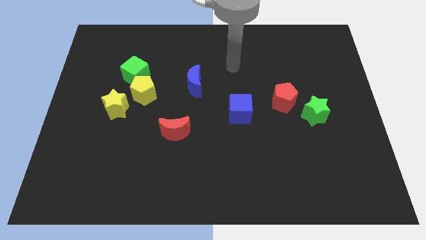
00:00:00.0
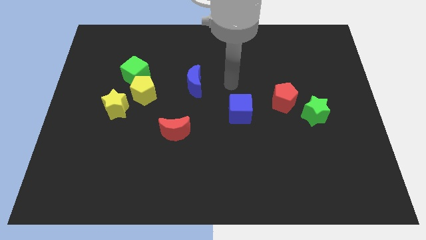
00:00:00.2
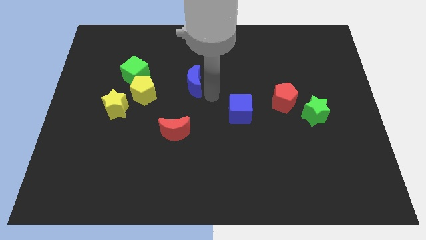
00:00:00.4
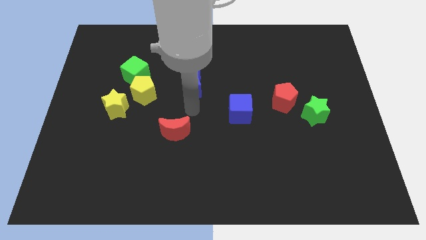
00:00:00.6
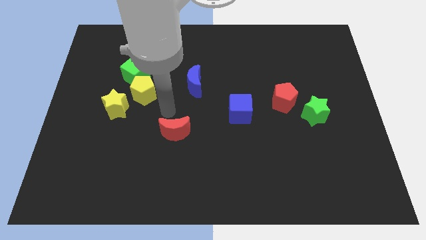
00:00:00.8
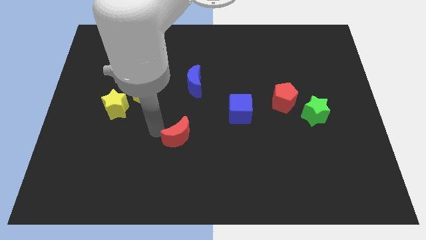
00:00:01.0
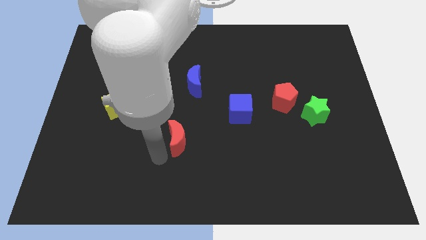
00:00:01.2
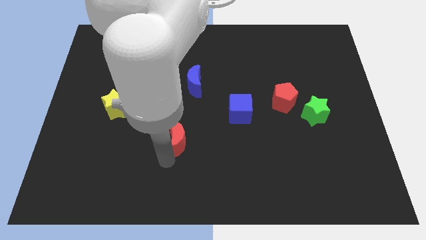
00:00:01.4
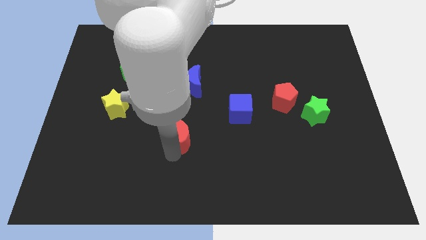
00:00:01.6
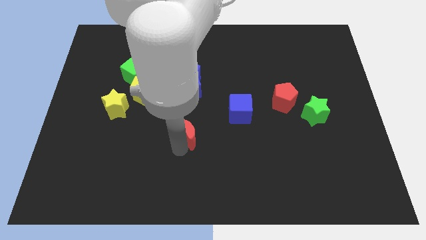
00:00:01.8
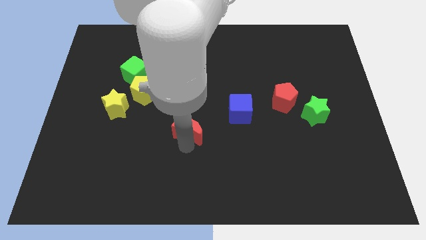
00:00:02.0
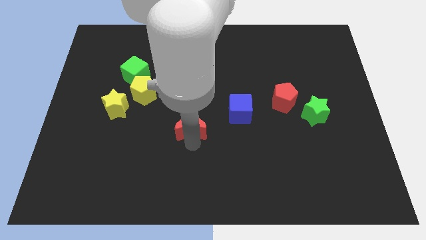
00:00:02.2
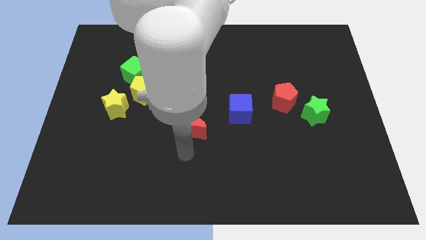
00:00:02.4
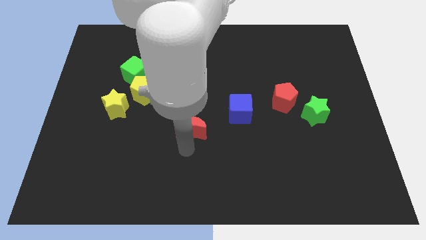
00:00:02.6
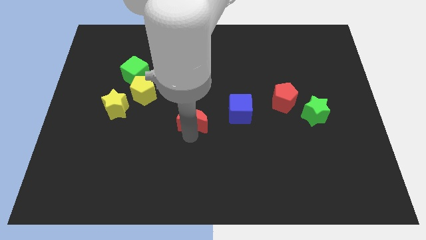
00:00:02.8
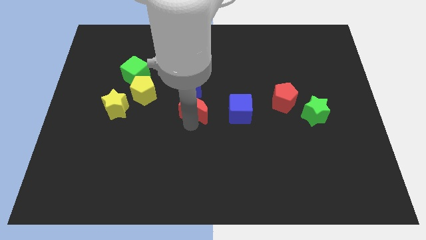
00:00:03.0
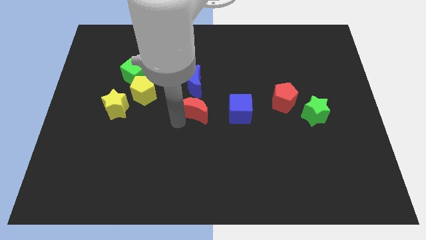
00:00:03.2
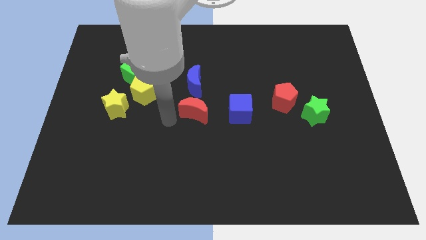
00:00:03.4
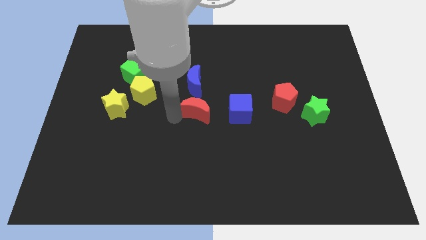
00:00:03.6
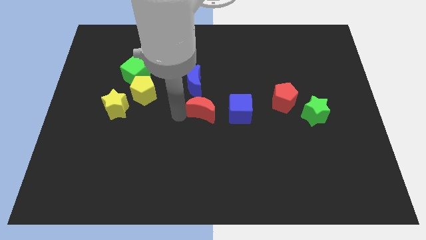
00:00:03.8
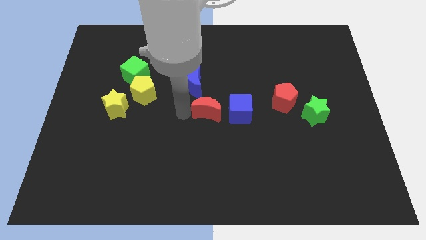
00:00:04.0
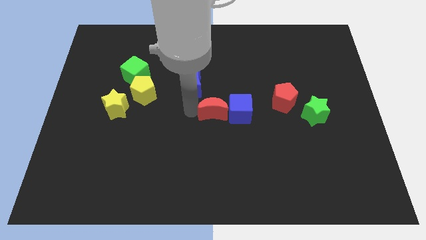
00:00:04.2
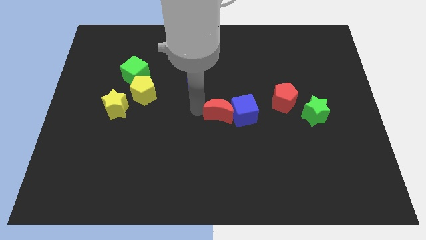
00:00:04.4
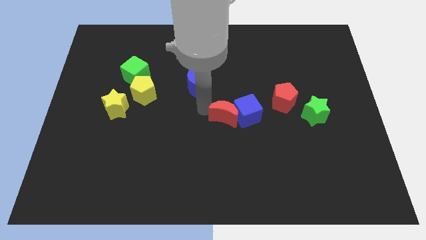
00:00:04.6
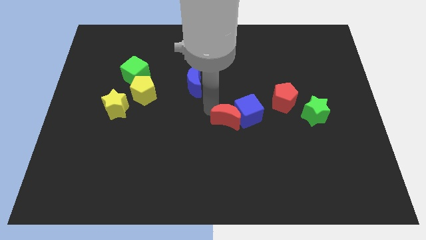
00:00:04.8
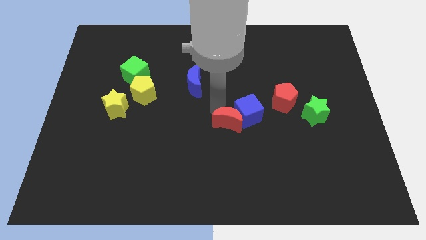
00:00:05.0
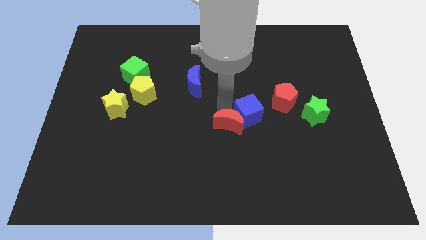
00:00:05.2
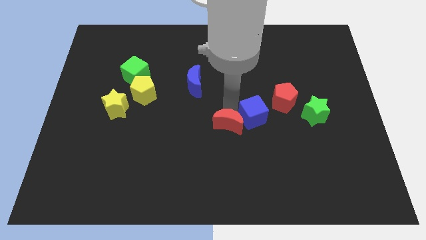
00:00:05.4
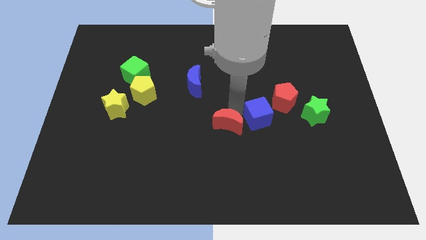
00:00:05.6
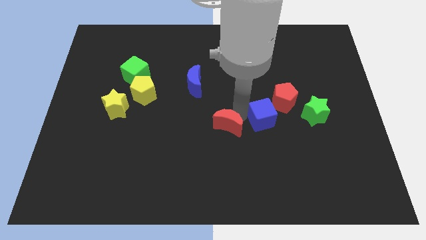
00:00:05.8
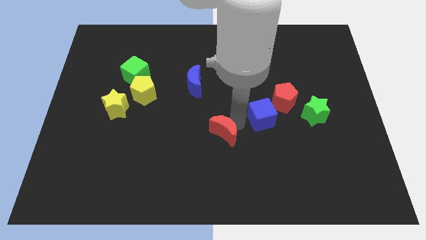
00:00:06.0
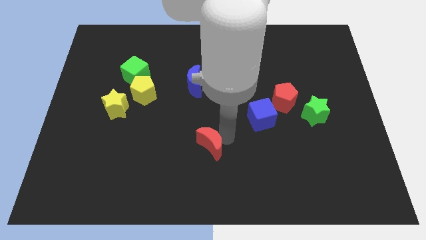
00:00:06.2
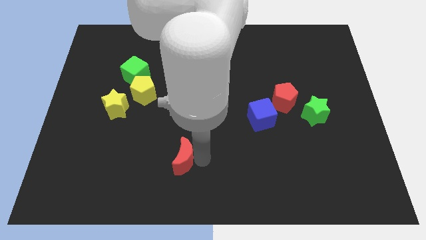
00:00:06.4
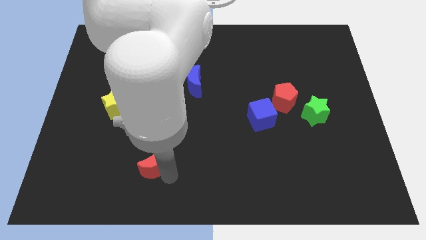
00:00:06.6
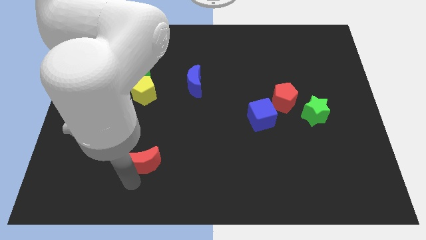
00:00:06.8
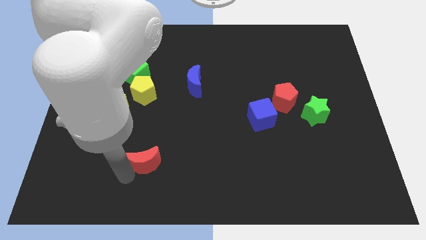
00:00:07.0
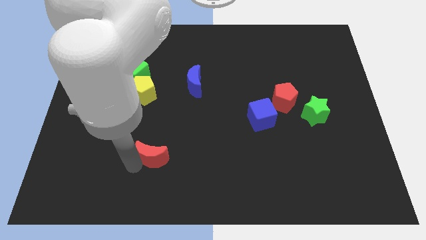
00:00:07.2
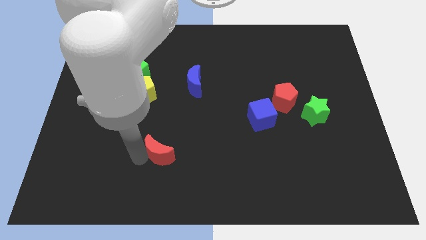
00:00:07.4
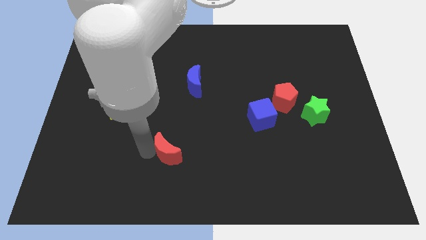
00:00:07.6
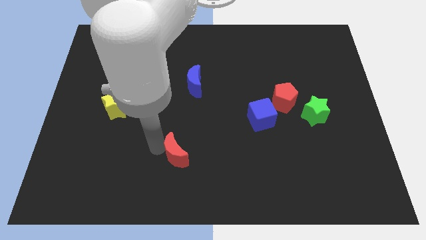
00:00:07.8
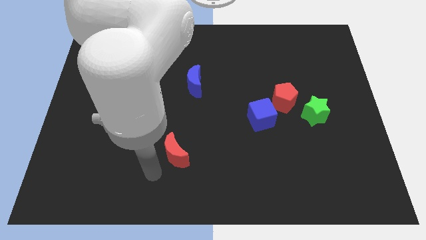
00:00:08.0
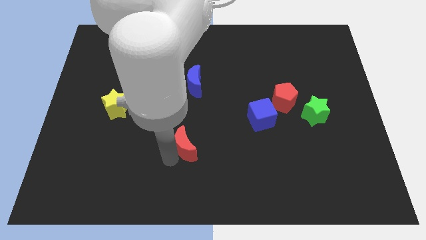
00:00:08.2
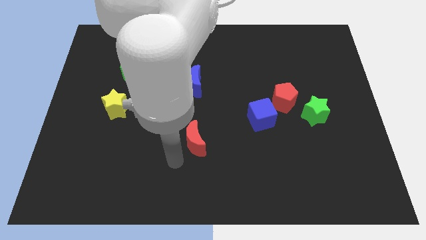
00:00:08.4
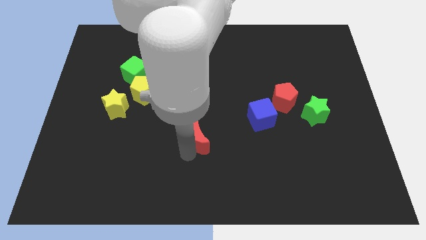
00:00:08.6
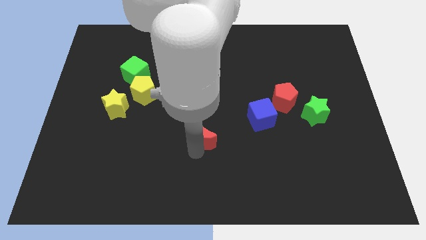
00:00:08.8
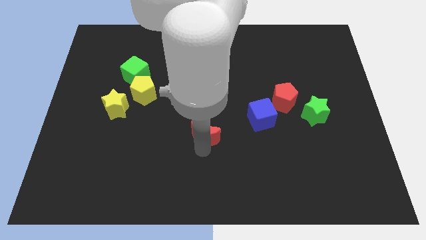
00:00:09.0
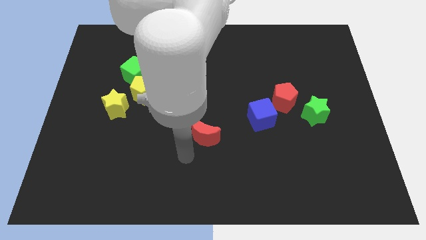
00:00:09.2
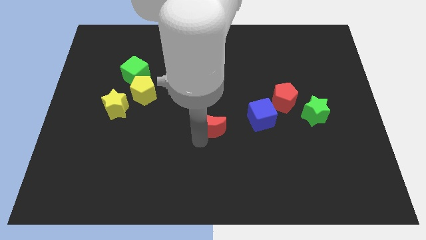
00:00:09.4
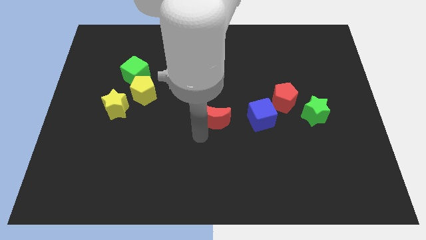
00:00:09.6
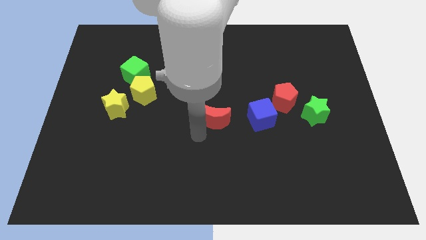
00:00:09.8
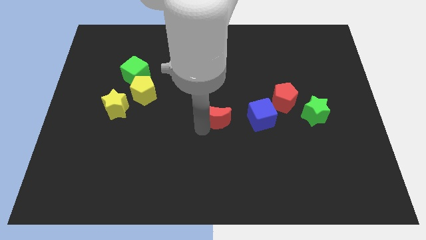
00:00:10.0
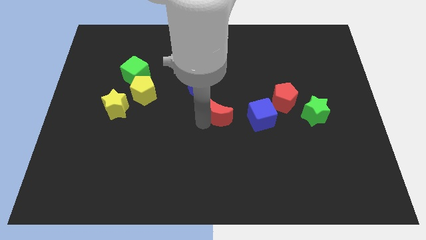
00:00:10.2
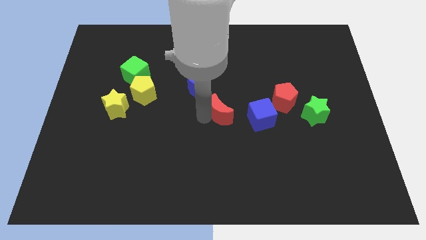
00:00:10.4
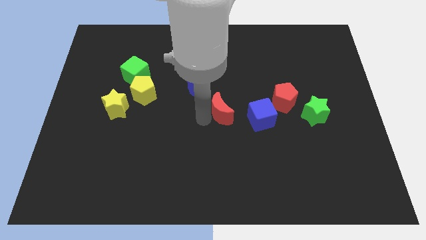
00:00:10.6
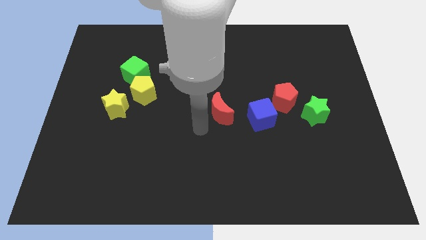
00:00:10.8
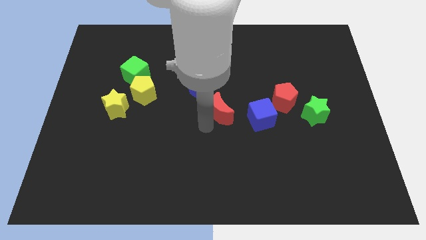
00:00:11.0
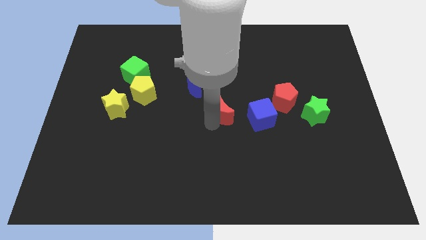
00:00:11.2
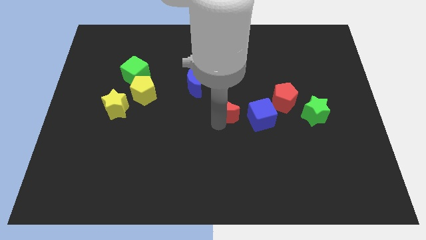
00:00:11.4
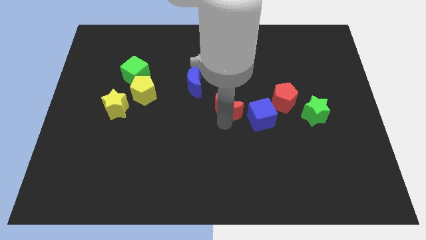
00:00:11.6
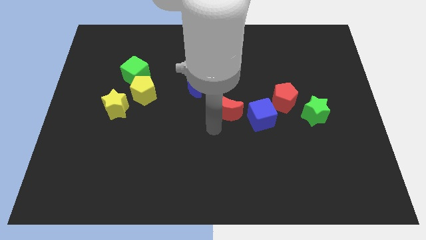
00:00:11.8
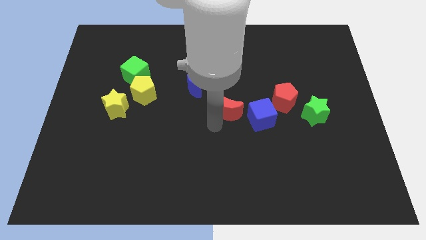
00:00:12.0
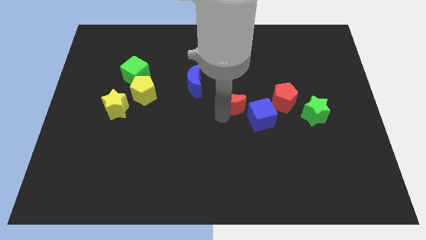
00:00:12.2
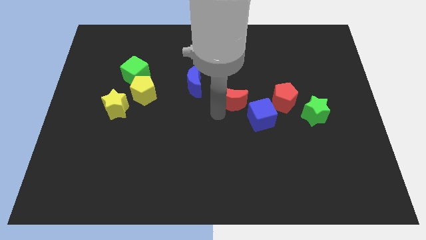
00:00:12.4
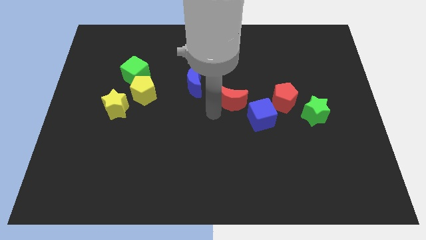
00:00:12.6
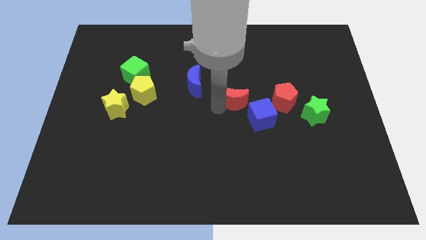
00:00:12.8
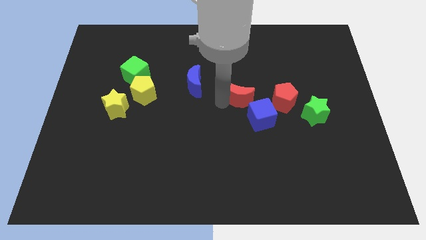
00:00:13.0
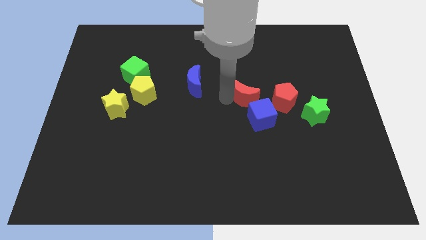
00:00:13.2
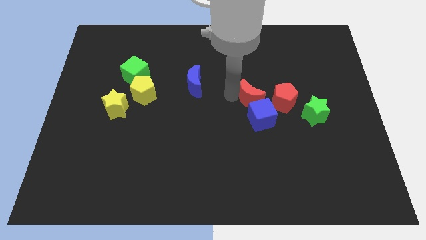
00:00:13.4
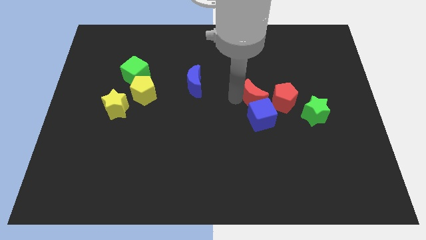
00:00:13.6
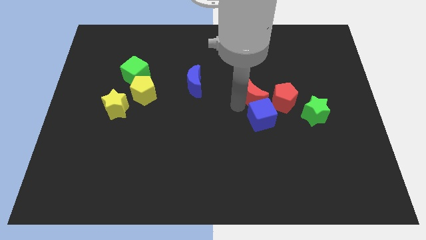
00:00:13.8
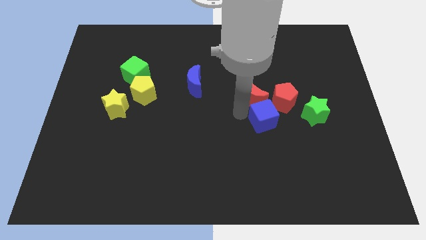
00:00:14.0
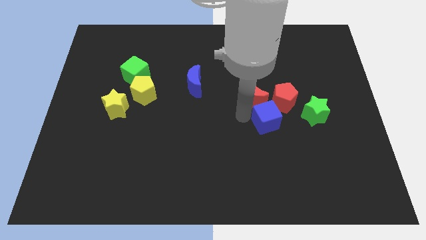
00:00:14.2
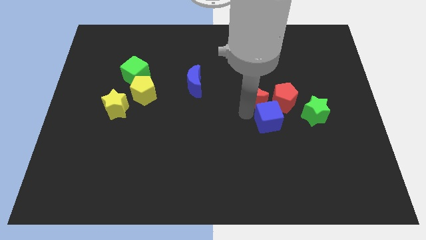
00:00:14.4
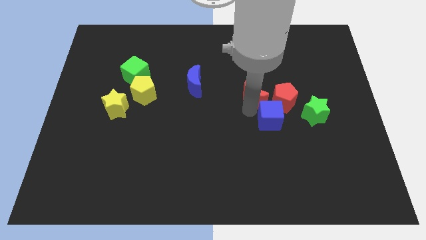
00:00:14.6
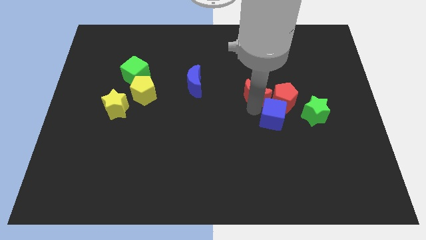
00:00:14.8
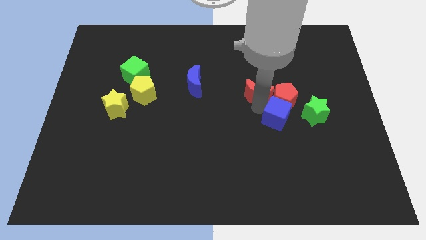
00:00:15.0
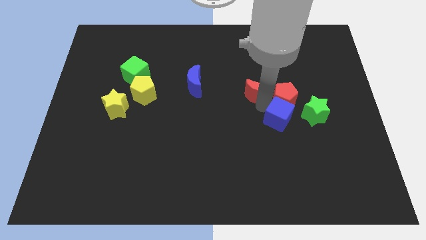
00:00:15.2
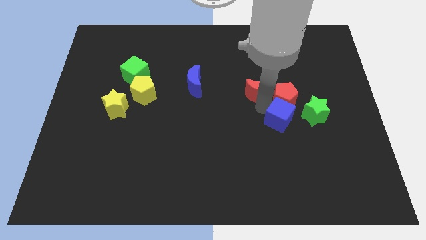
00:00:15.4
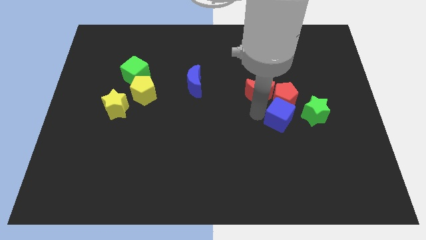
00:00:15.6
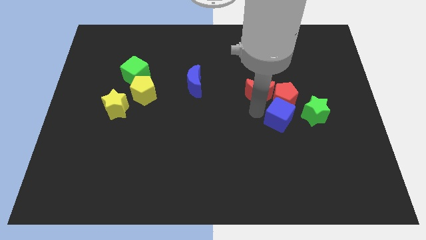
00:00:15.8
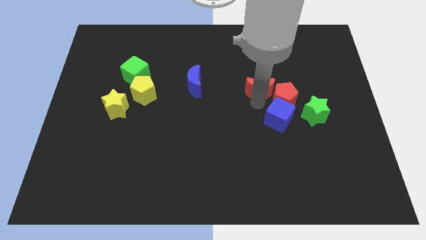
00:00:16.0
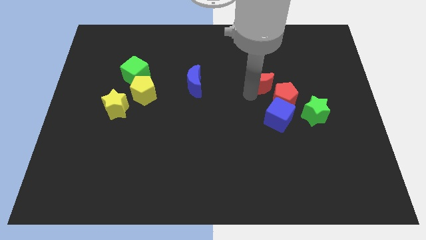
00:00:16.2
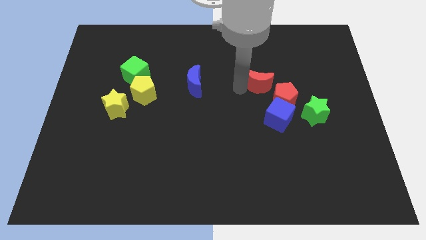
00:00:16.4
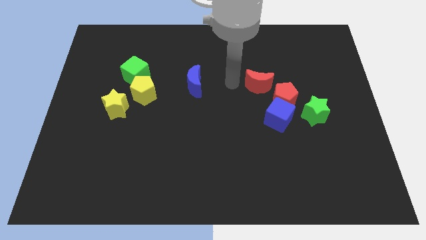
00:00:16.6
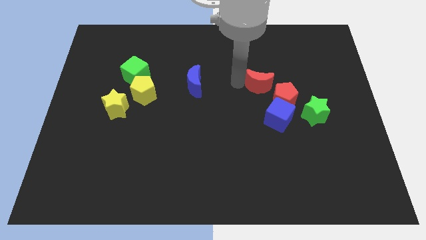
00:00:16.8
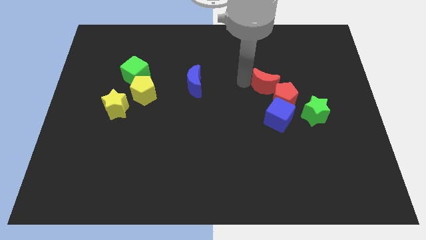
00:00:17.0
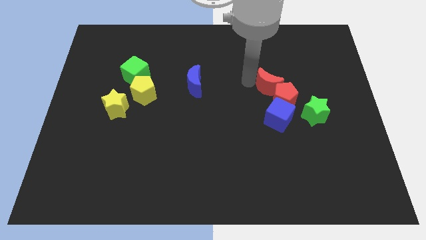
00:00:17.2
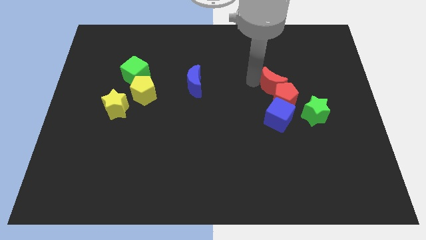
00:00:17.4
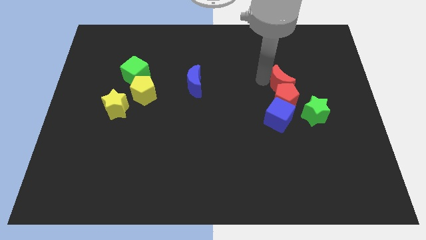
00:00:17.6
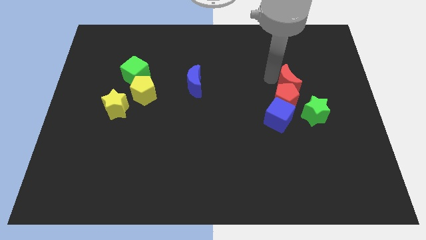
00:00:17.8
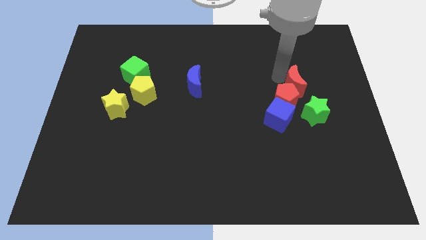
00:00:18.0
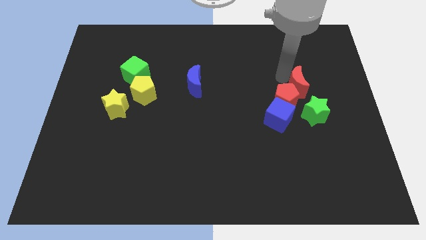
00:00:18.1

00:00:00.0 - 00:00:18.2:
move the red moon just right of the red pentagon
